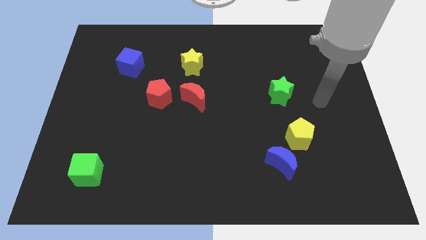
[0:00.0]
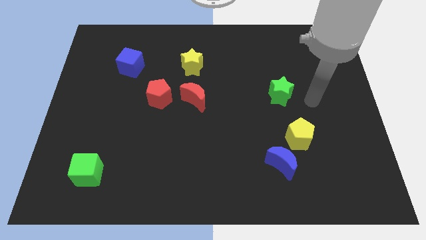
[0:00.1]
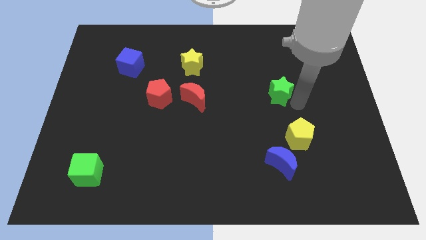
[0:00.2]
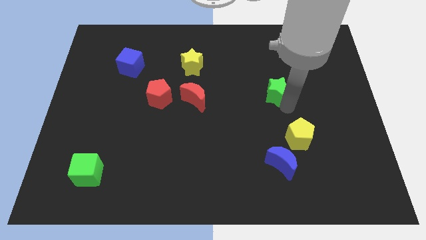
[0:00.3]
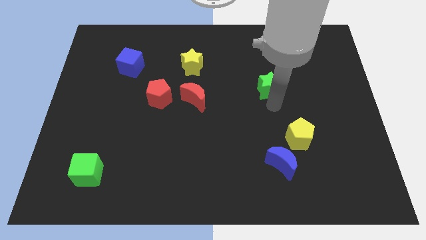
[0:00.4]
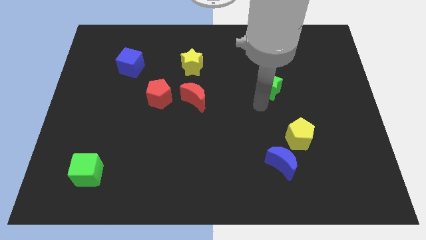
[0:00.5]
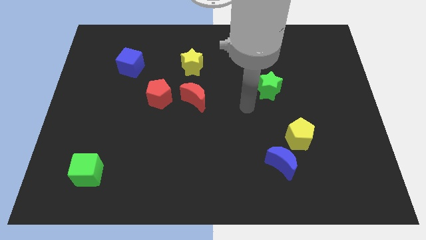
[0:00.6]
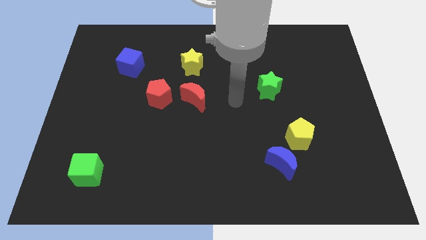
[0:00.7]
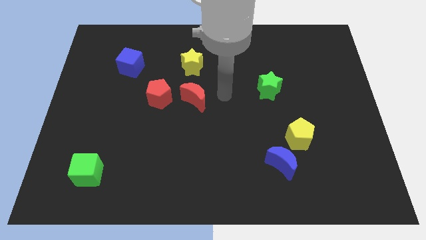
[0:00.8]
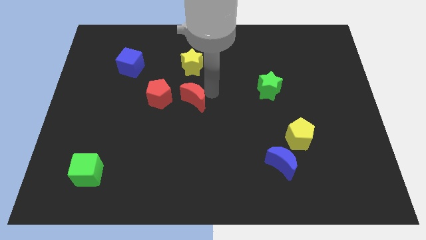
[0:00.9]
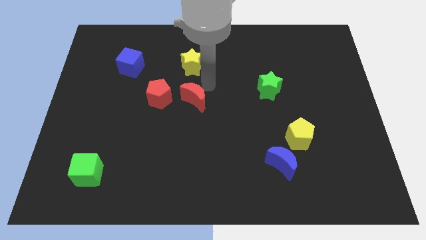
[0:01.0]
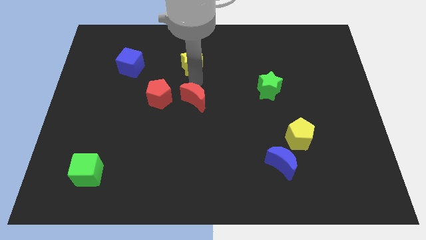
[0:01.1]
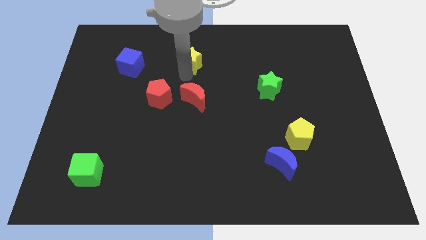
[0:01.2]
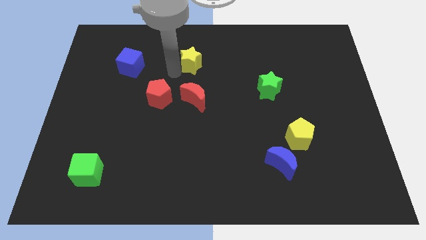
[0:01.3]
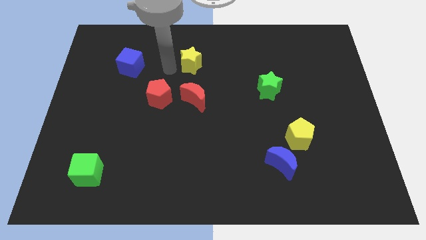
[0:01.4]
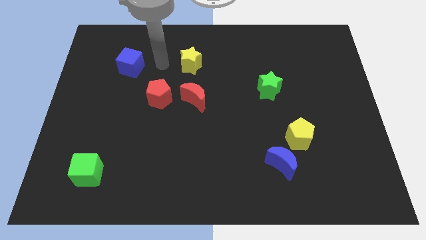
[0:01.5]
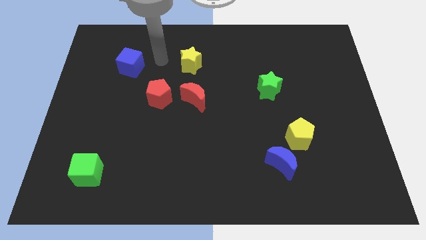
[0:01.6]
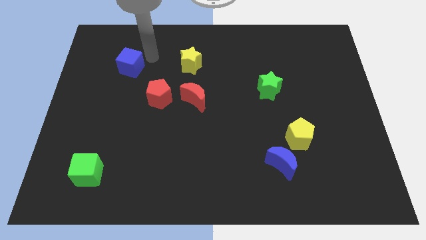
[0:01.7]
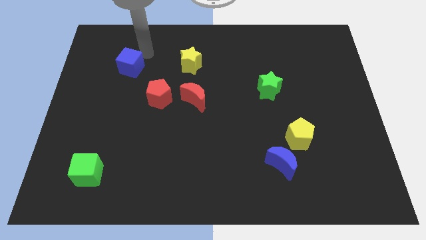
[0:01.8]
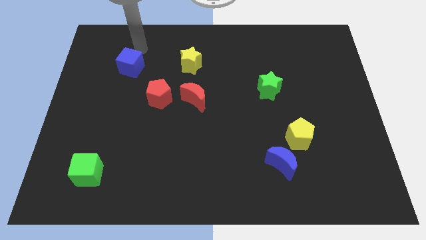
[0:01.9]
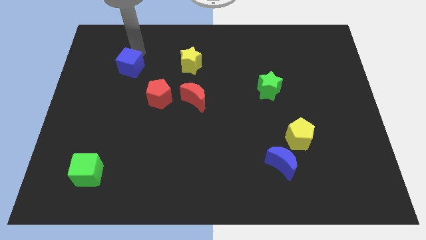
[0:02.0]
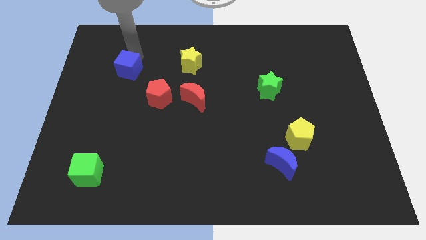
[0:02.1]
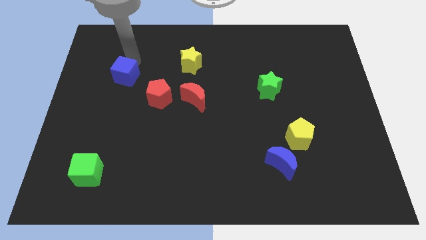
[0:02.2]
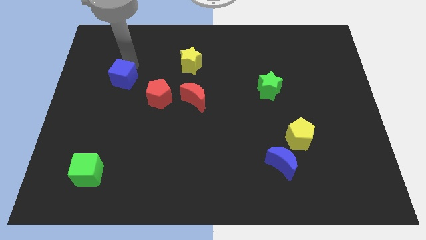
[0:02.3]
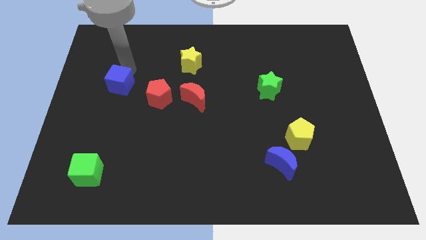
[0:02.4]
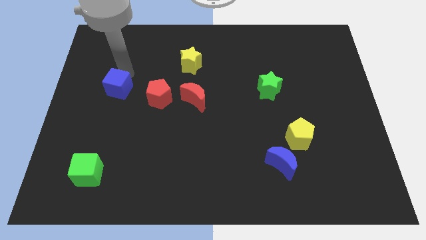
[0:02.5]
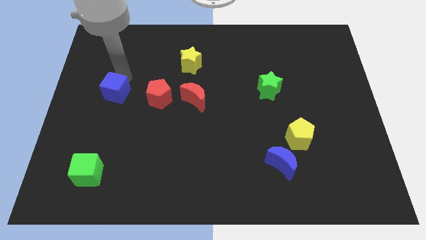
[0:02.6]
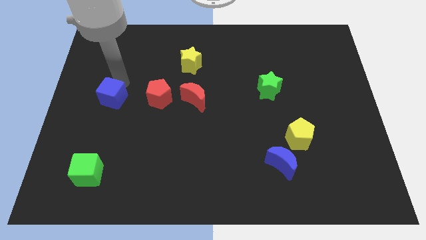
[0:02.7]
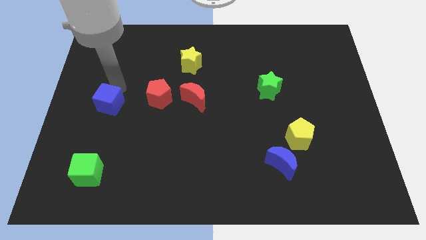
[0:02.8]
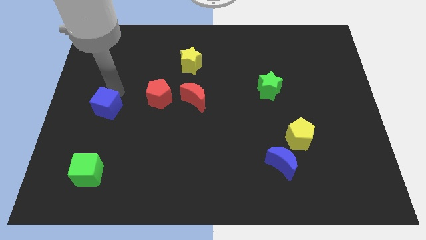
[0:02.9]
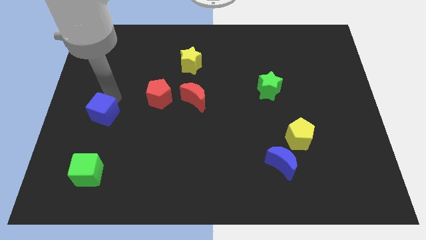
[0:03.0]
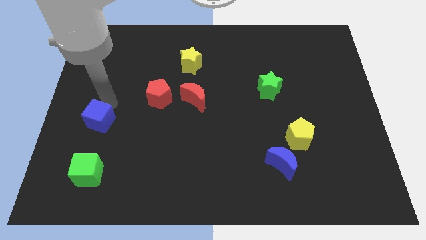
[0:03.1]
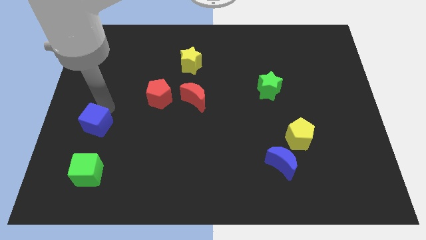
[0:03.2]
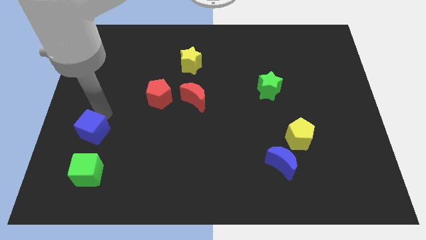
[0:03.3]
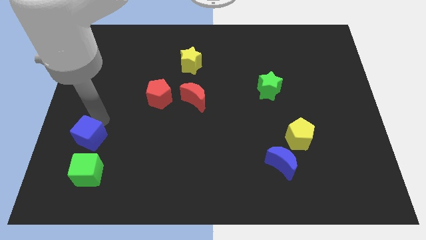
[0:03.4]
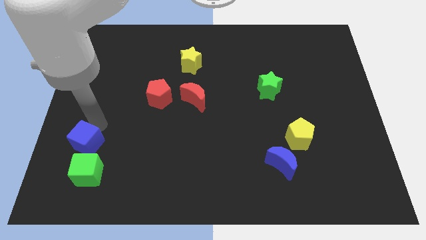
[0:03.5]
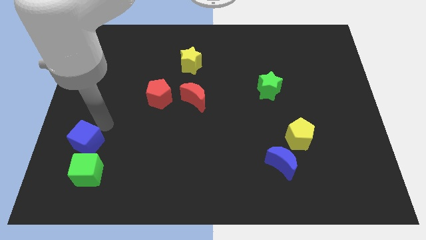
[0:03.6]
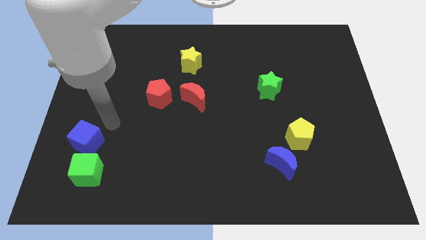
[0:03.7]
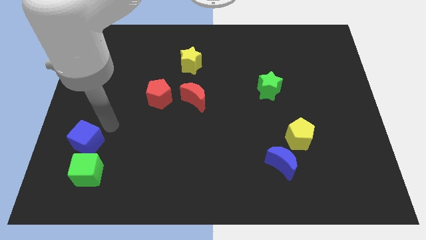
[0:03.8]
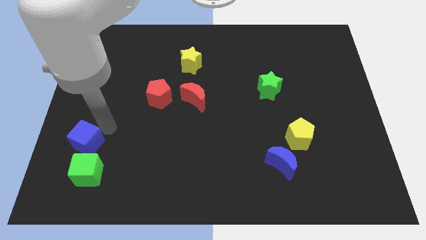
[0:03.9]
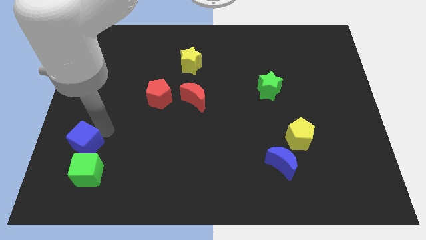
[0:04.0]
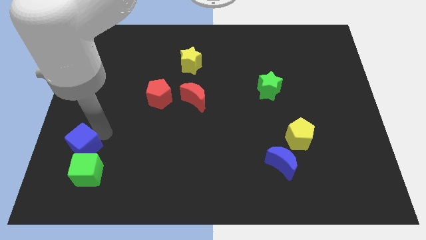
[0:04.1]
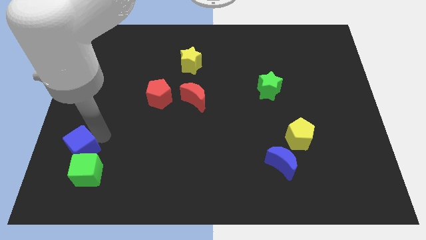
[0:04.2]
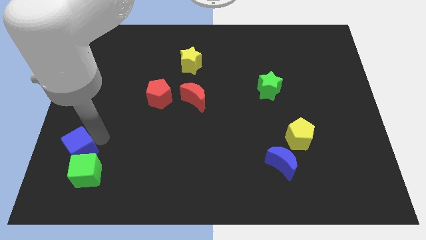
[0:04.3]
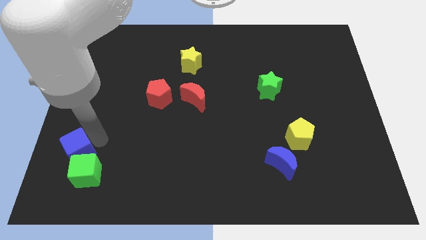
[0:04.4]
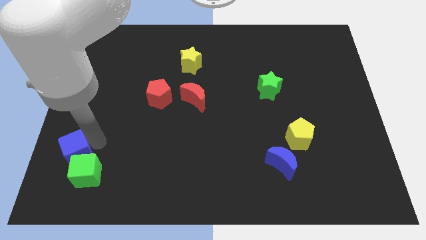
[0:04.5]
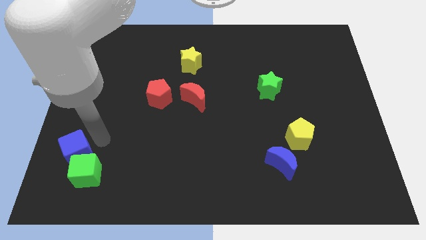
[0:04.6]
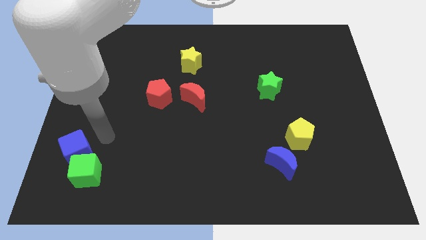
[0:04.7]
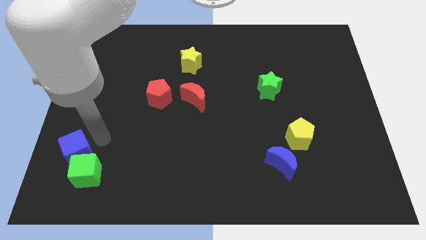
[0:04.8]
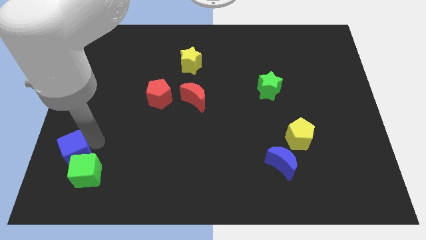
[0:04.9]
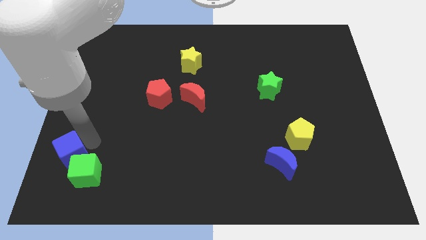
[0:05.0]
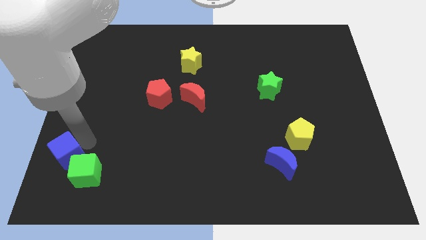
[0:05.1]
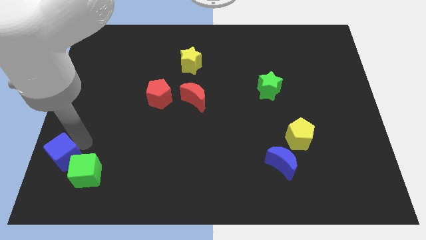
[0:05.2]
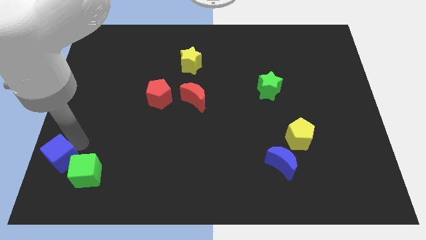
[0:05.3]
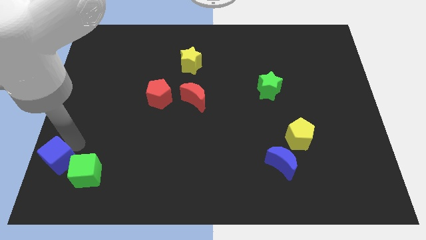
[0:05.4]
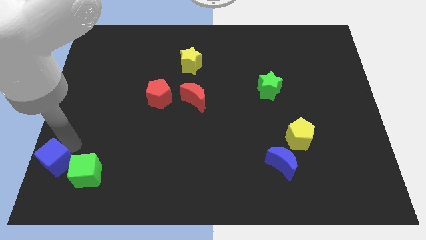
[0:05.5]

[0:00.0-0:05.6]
push the blue cube to the bottom left corner

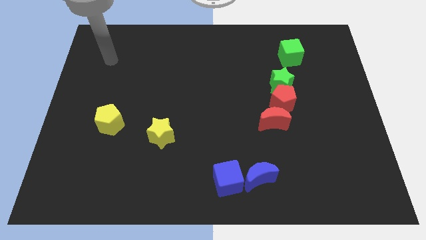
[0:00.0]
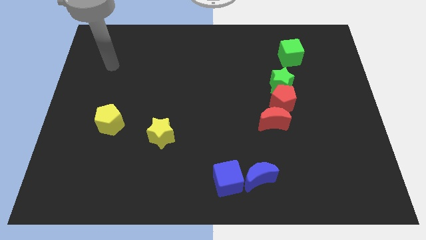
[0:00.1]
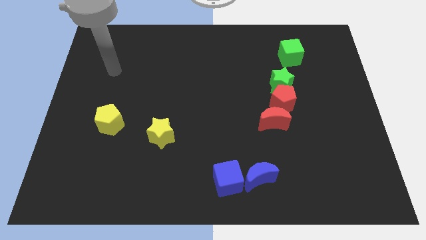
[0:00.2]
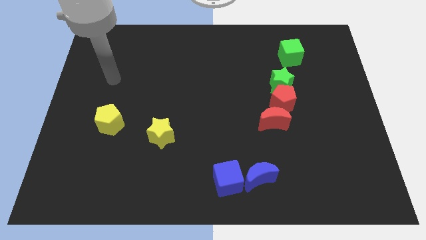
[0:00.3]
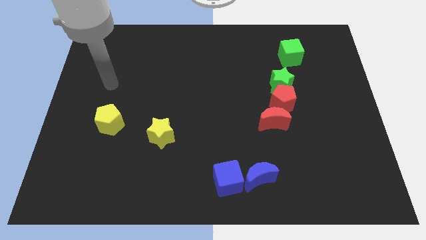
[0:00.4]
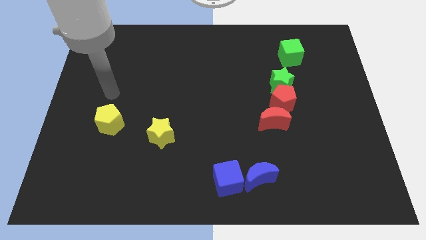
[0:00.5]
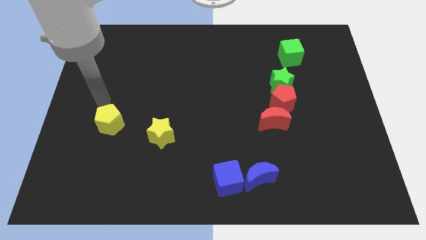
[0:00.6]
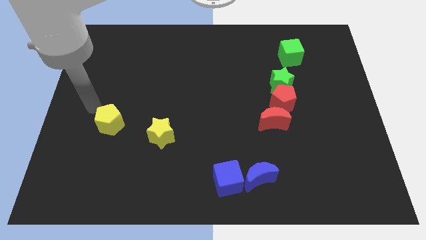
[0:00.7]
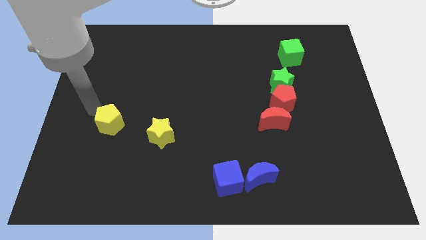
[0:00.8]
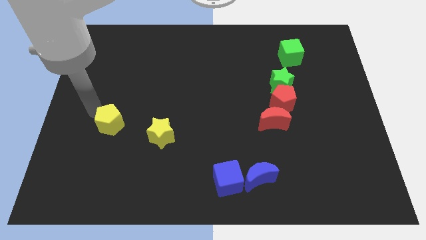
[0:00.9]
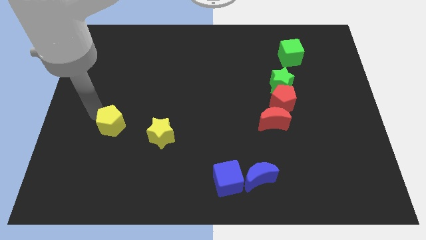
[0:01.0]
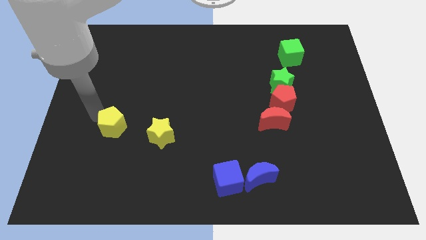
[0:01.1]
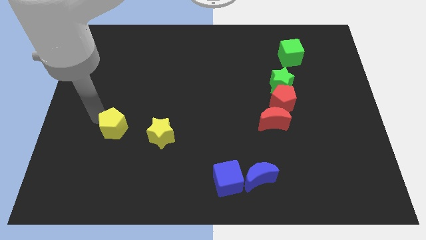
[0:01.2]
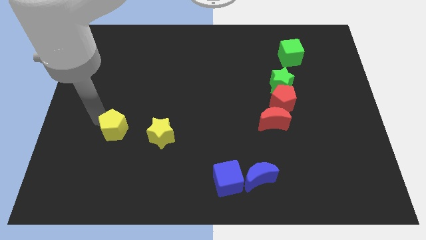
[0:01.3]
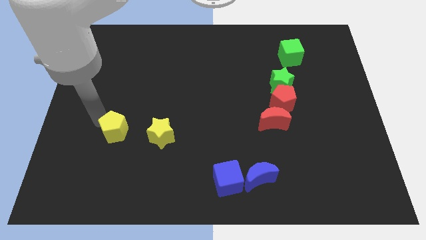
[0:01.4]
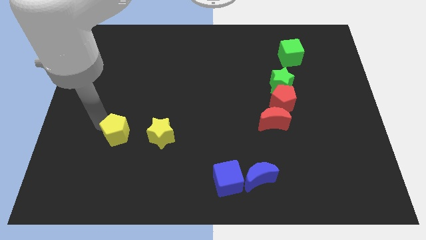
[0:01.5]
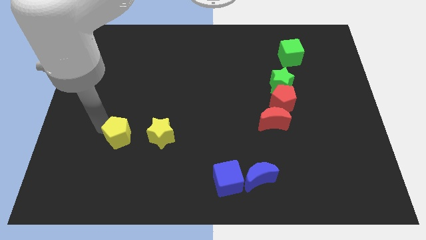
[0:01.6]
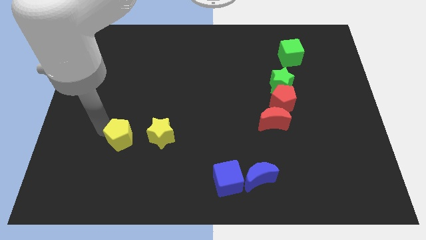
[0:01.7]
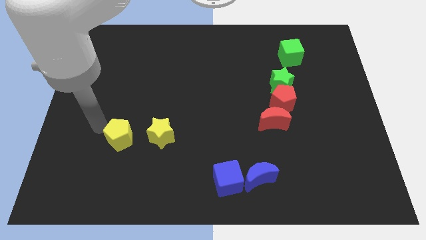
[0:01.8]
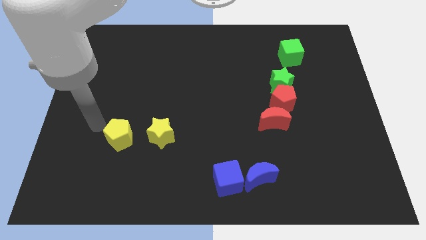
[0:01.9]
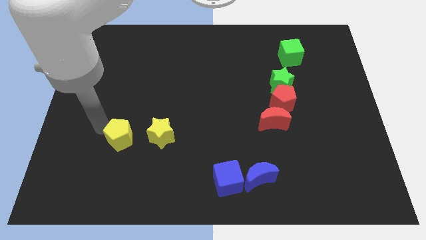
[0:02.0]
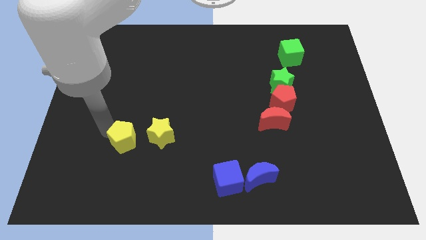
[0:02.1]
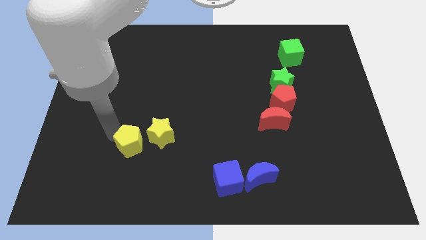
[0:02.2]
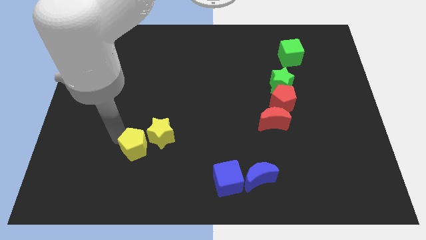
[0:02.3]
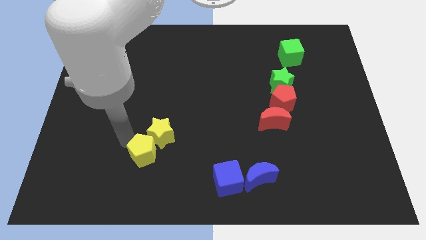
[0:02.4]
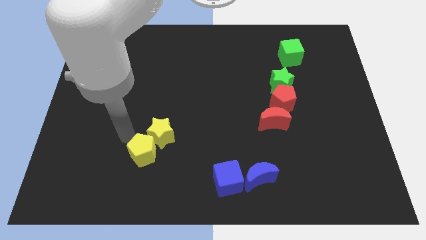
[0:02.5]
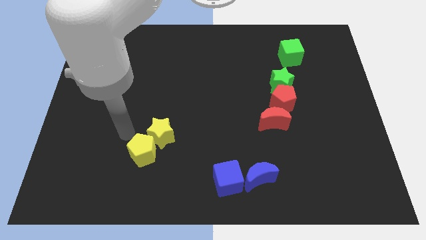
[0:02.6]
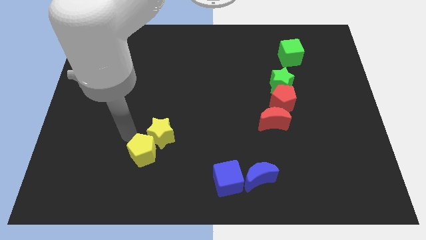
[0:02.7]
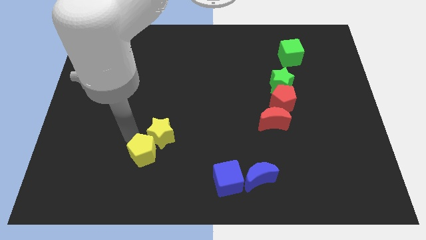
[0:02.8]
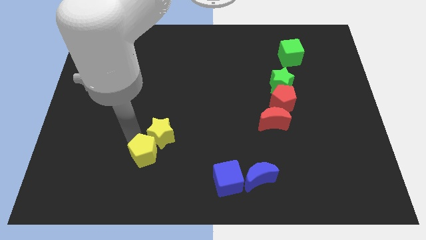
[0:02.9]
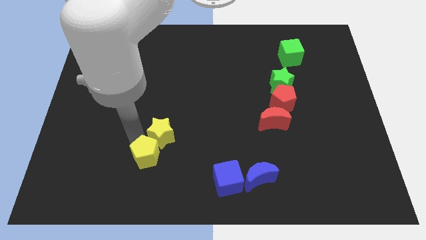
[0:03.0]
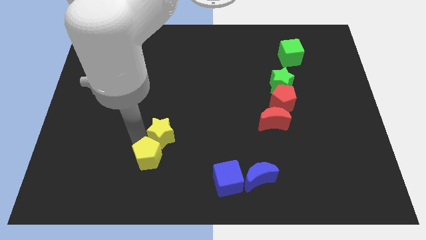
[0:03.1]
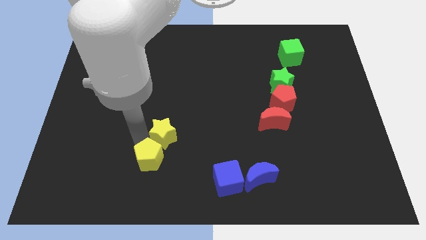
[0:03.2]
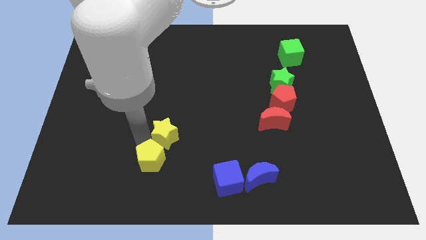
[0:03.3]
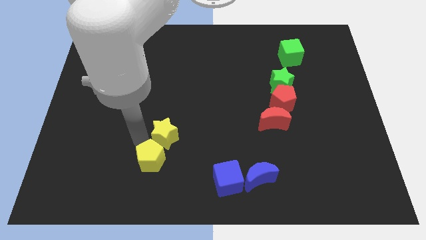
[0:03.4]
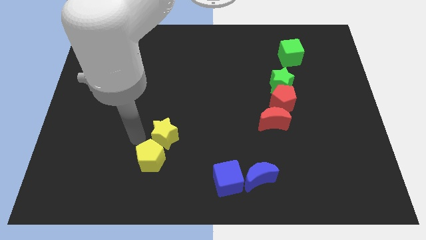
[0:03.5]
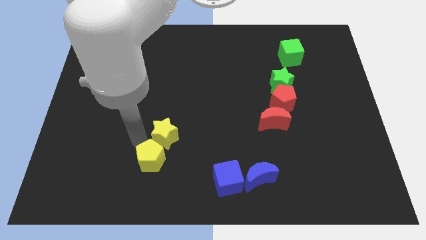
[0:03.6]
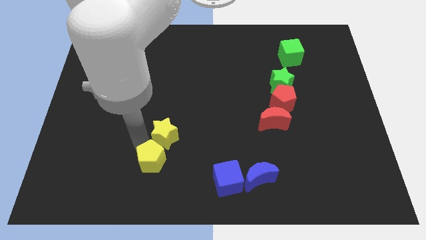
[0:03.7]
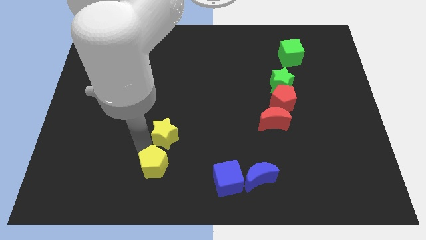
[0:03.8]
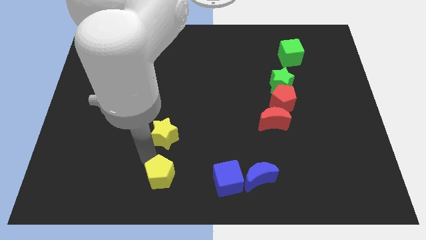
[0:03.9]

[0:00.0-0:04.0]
slide the yellow pentagon to the bottom
